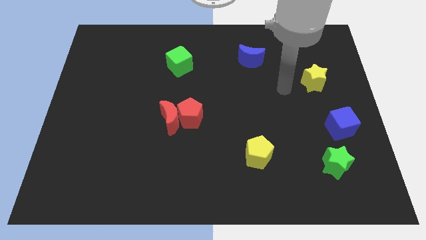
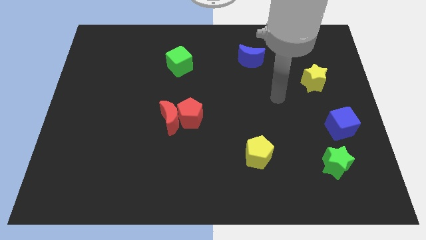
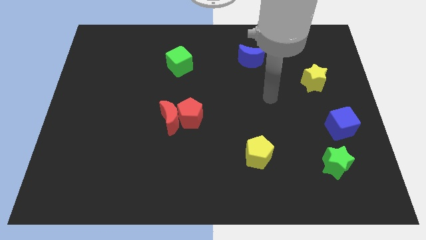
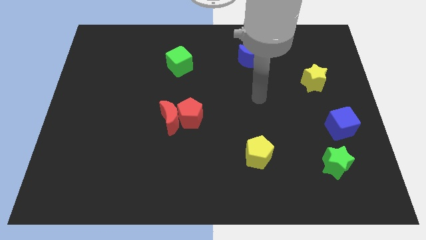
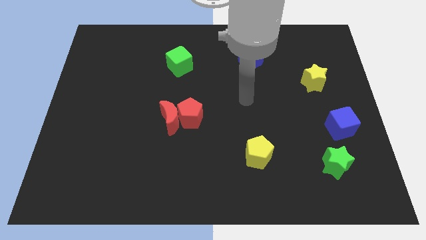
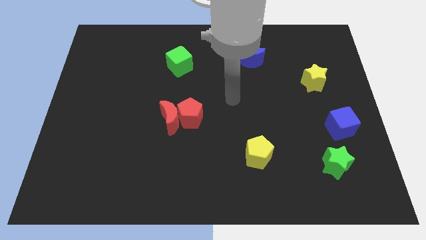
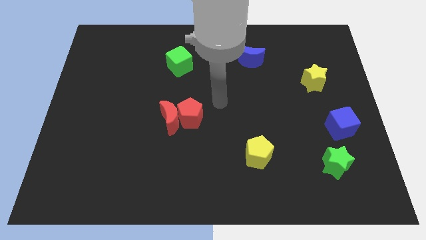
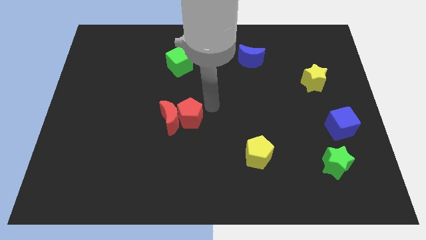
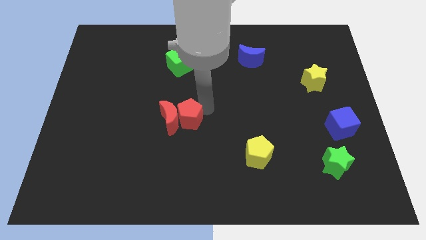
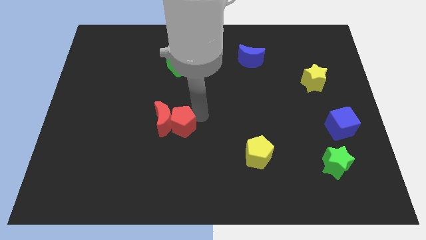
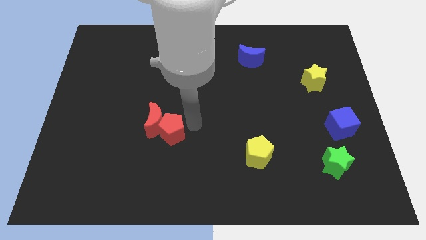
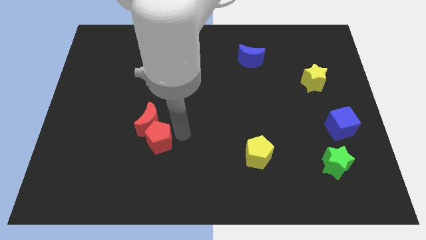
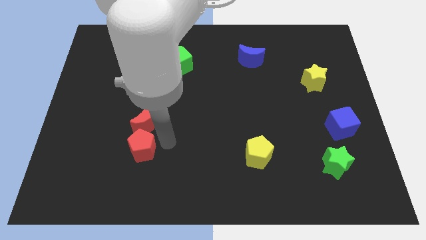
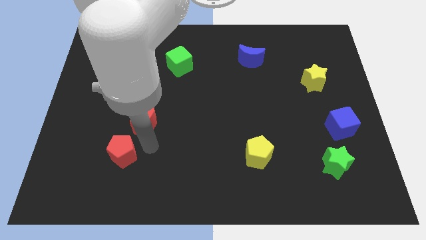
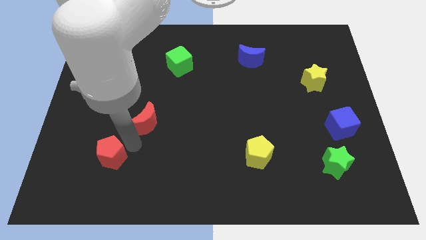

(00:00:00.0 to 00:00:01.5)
pull the red moon apart from the red pentagon

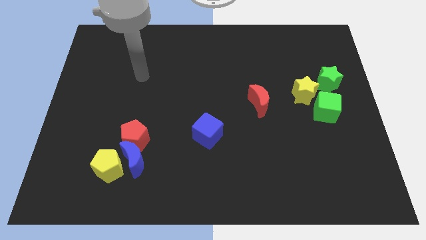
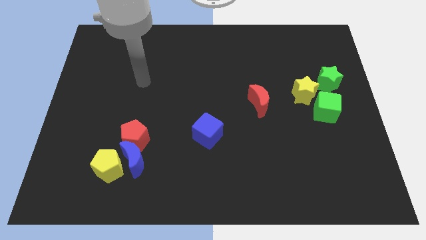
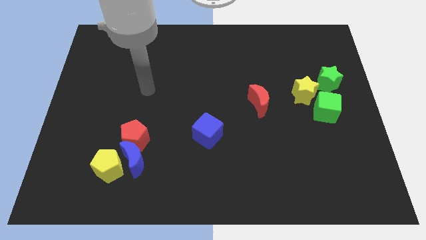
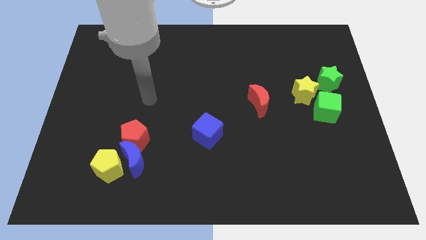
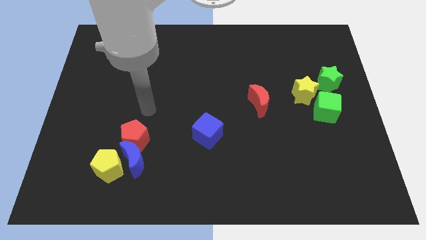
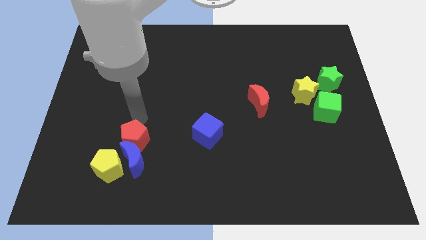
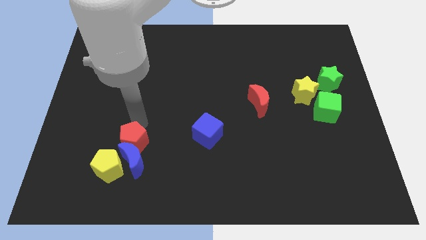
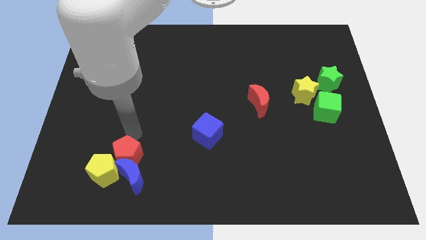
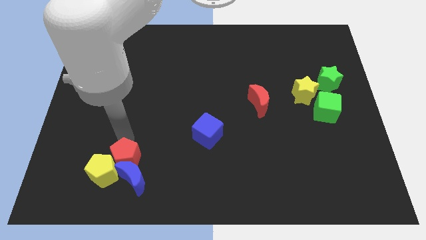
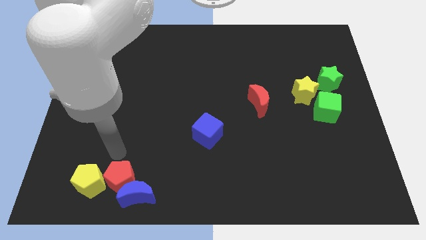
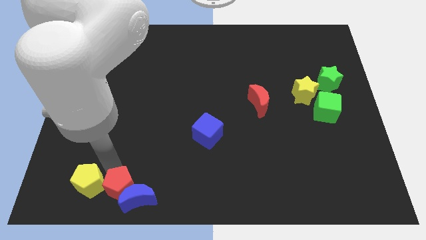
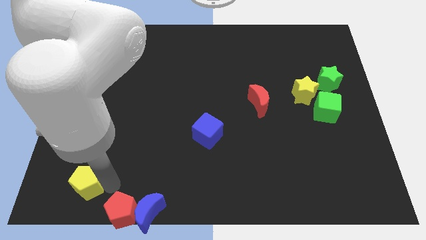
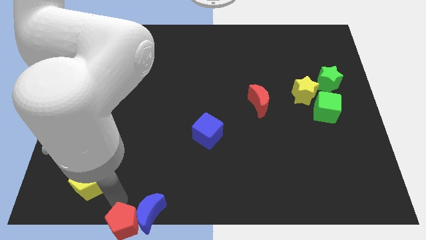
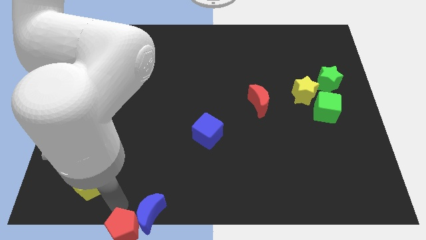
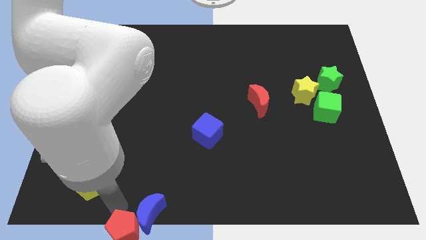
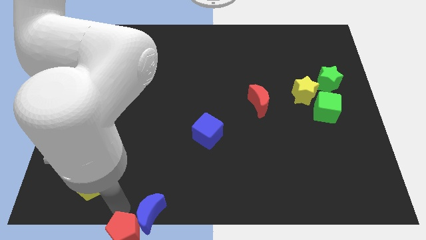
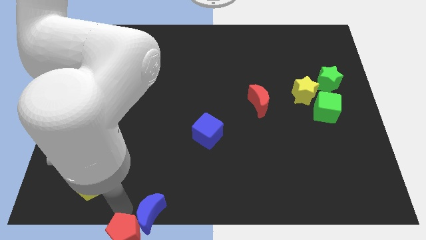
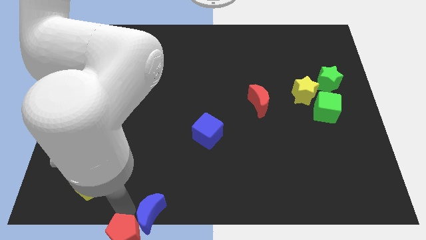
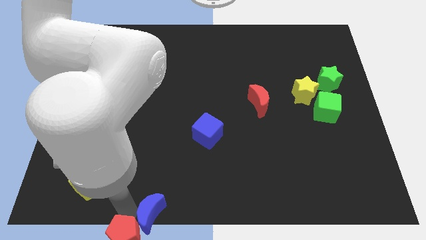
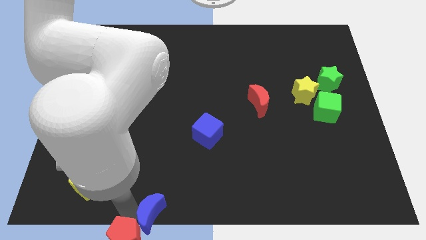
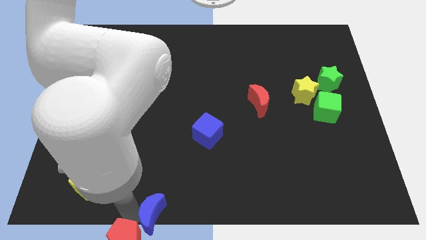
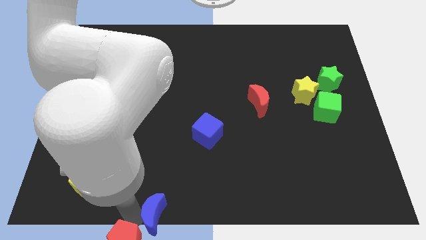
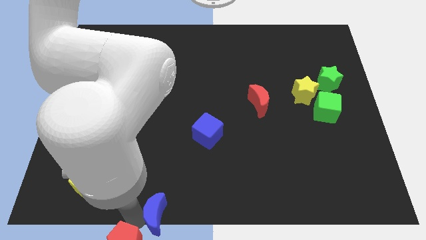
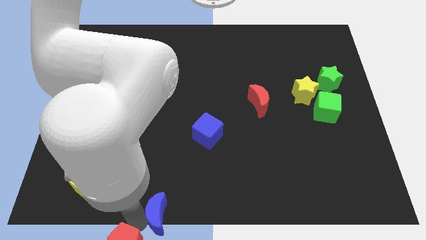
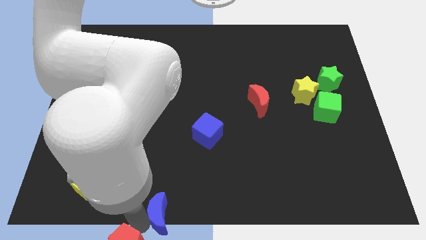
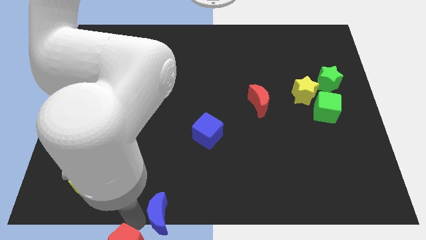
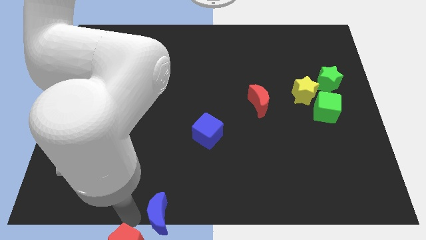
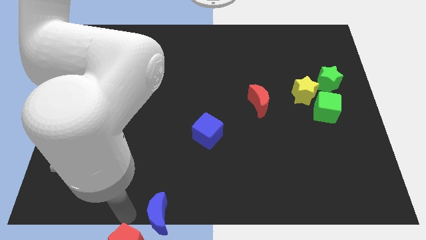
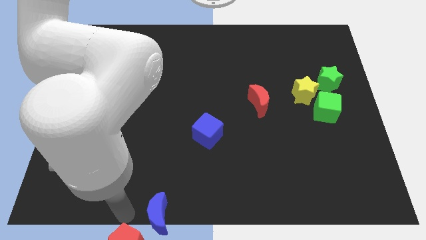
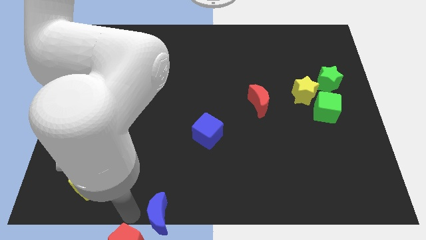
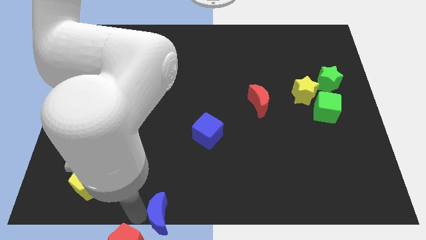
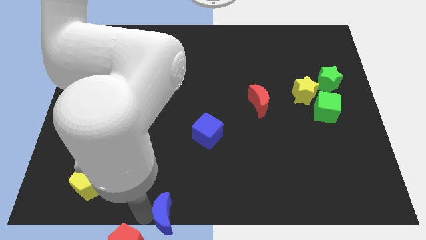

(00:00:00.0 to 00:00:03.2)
move the blue moon away from the red pentagon and yellow pentagon

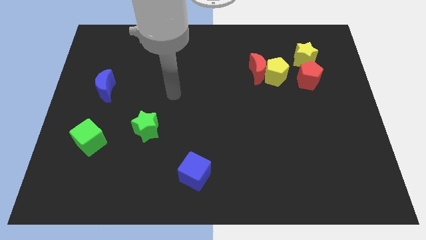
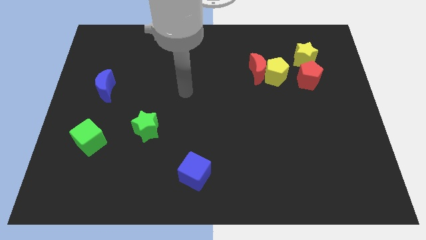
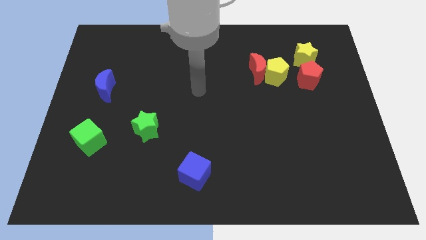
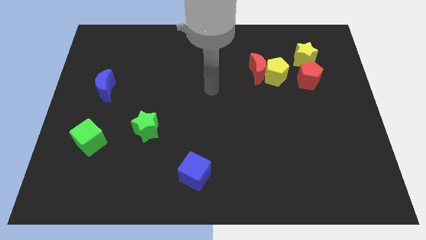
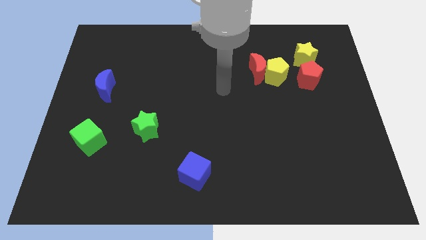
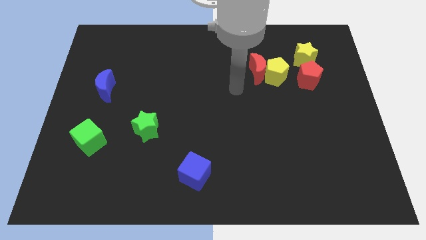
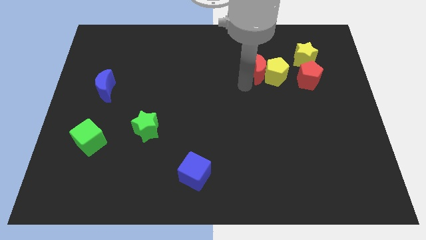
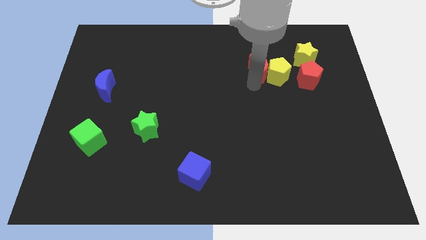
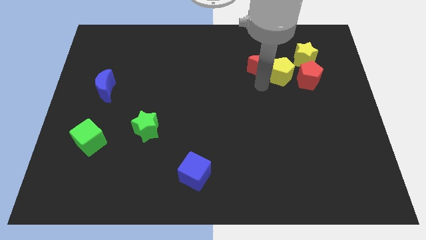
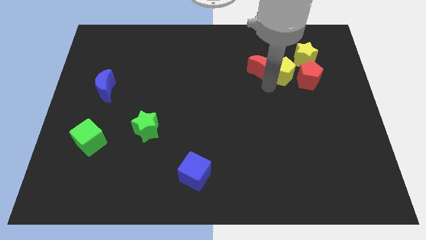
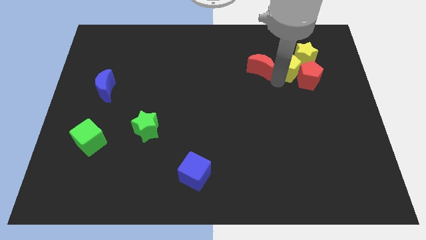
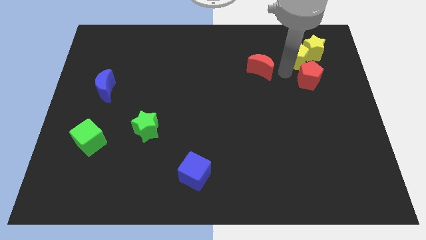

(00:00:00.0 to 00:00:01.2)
separate the red moon from the yellow pentagon

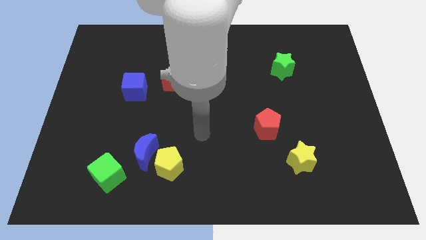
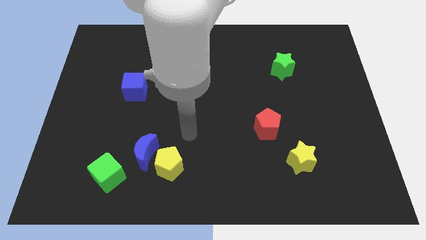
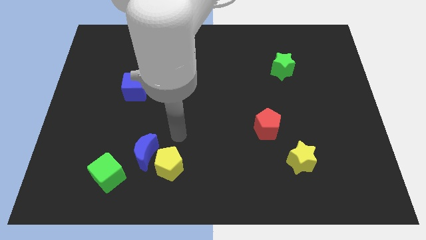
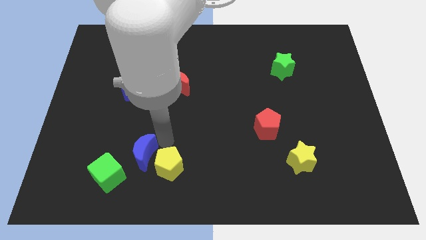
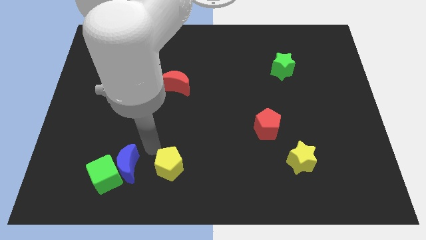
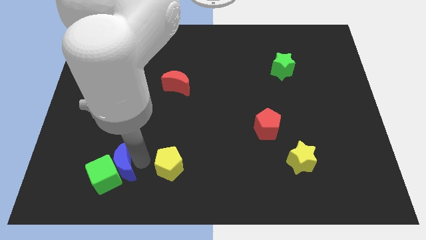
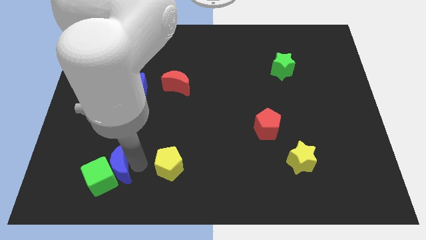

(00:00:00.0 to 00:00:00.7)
separate the yellow pentagon from the blue moon

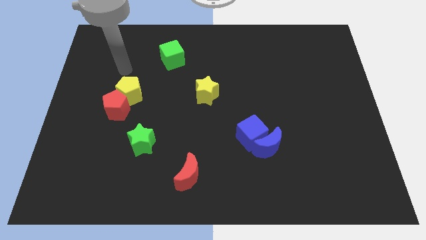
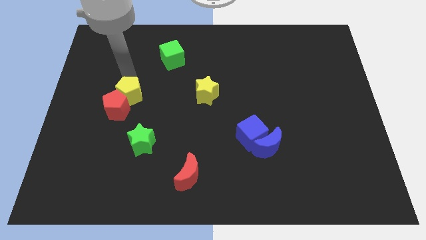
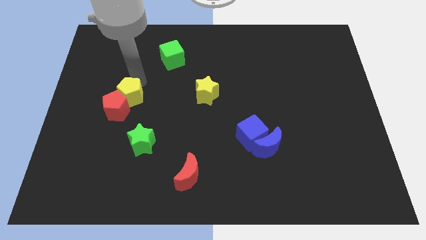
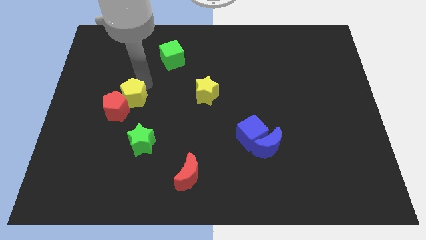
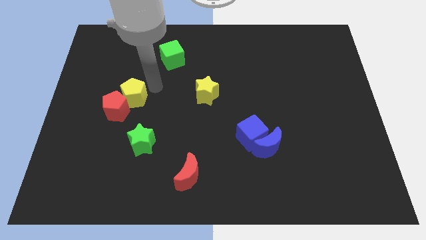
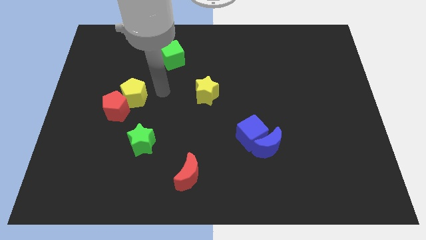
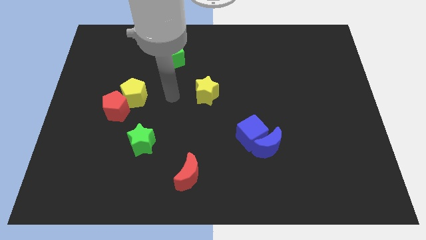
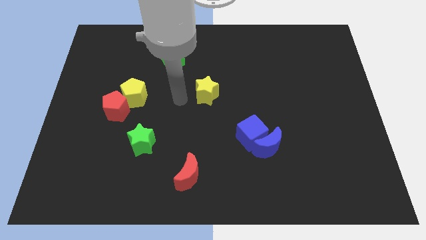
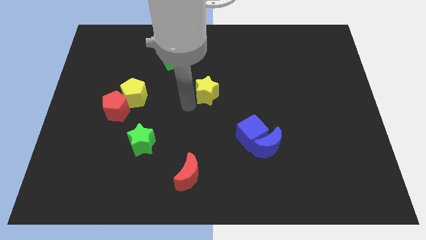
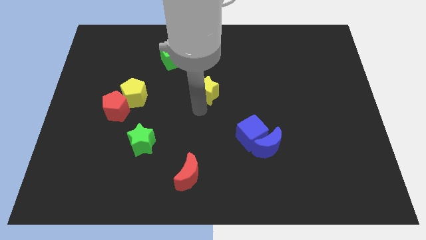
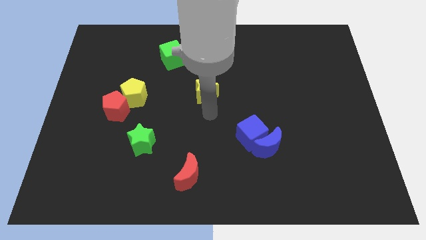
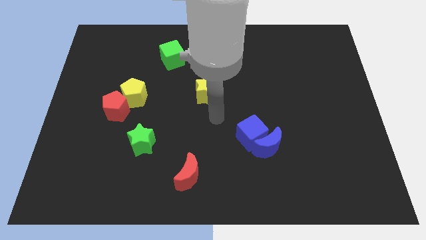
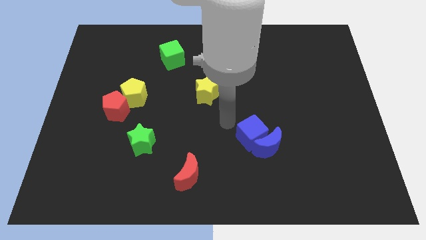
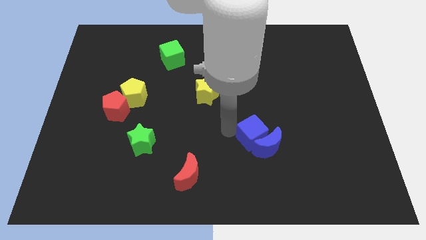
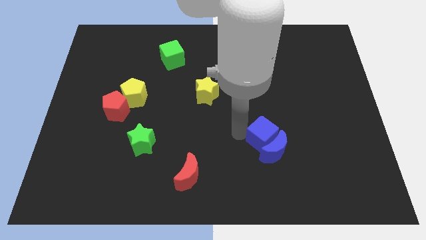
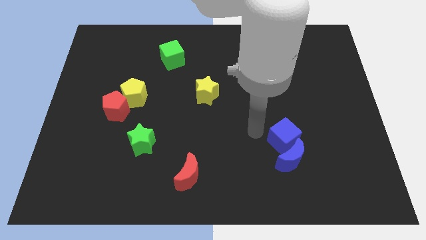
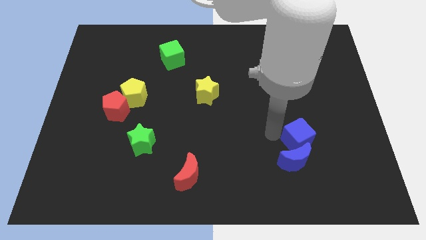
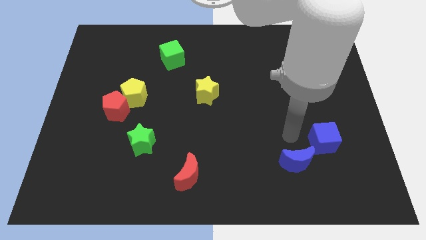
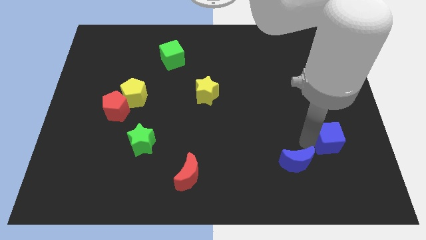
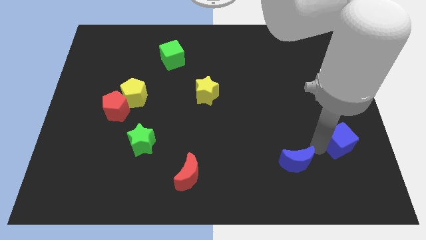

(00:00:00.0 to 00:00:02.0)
move the blue moon away from the blue cube

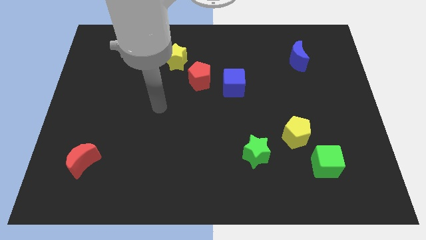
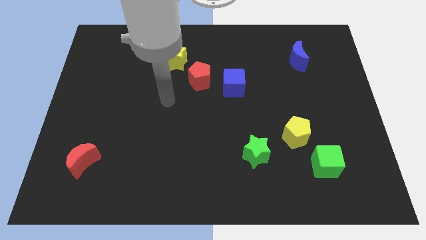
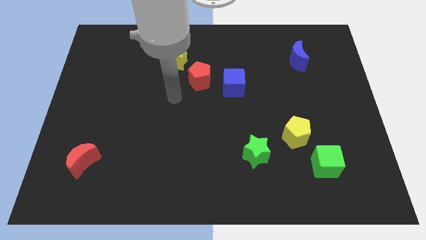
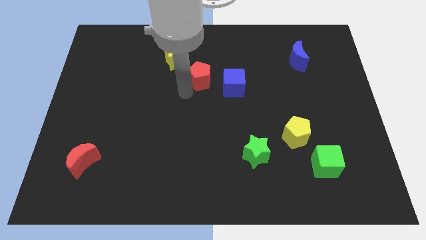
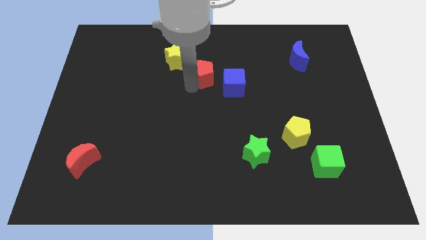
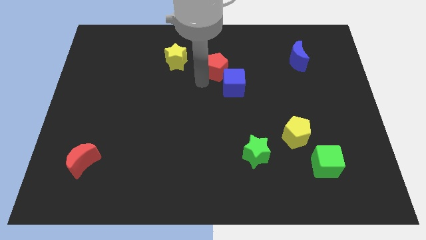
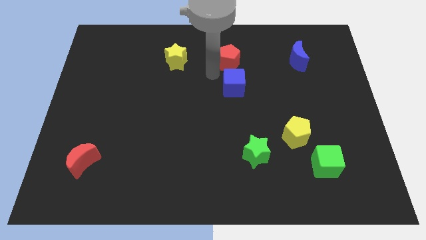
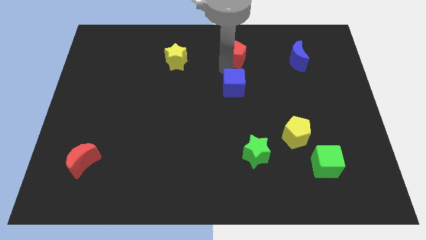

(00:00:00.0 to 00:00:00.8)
move the blue cube away from the red pentagon
